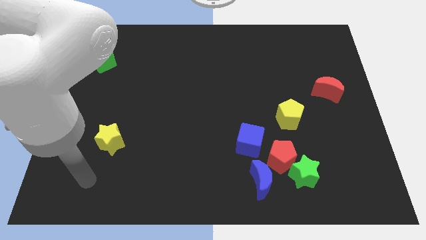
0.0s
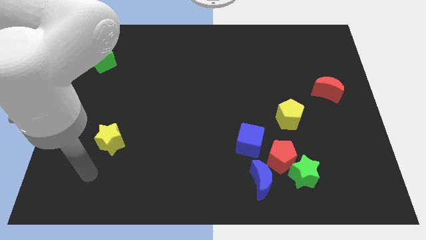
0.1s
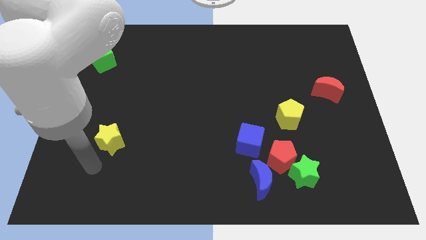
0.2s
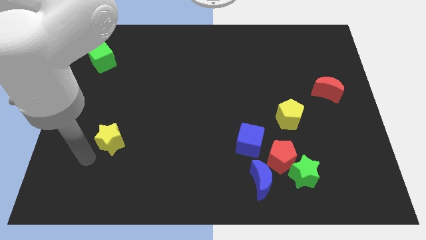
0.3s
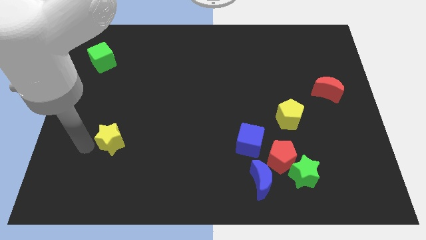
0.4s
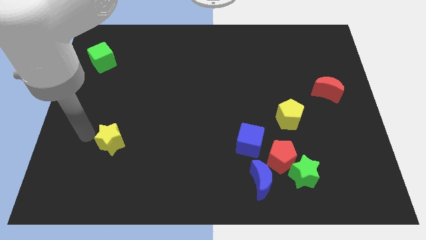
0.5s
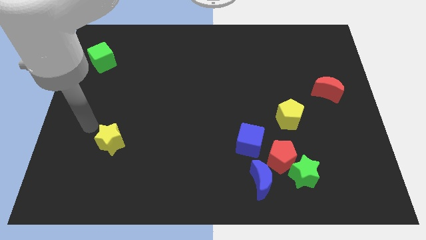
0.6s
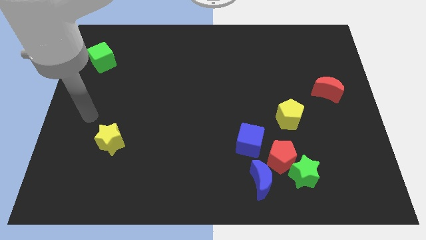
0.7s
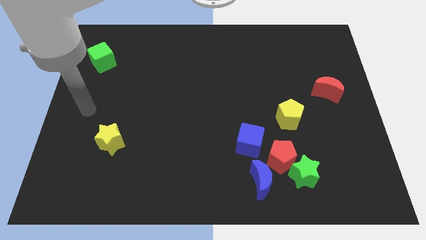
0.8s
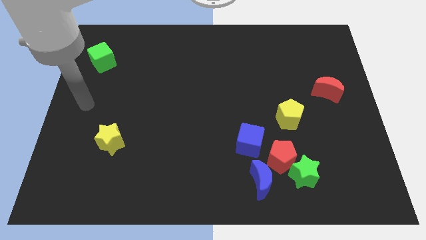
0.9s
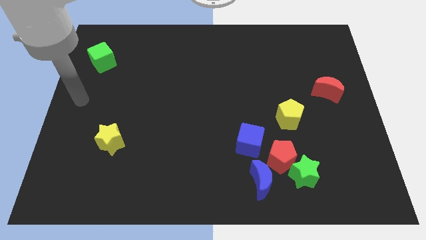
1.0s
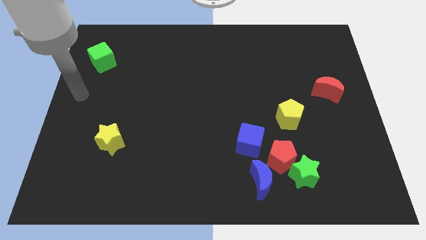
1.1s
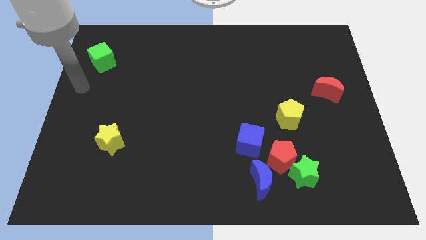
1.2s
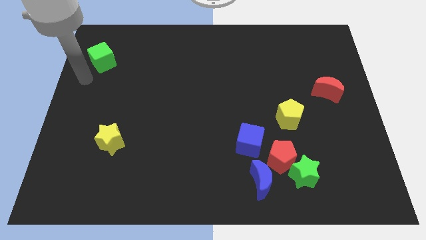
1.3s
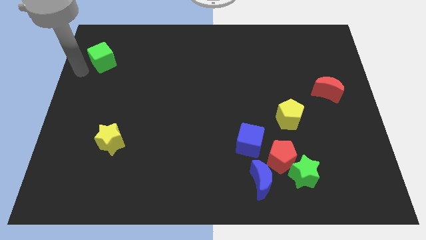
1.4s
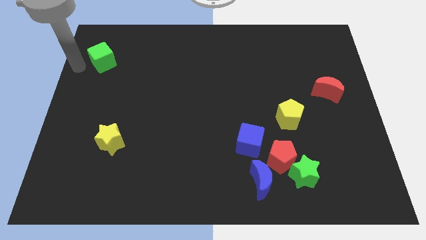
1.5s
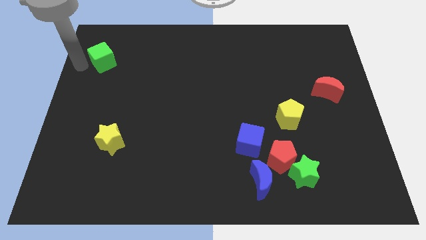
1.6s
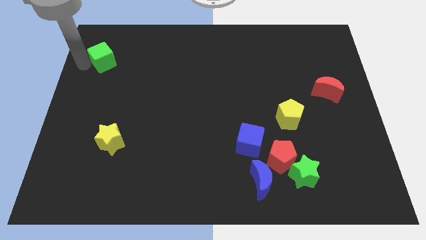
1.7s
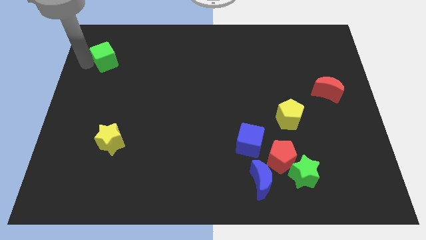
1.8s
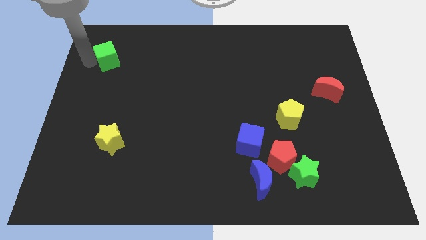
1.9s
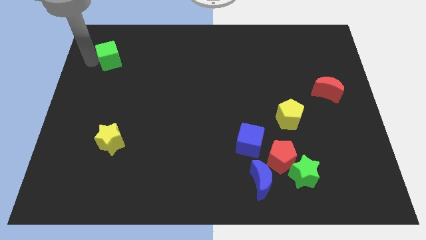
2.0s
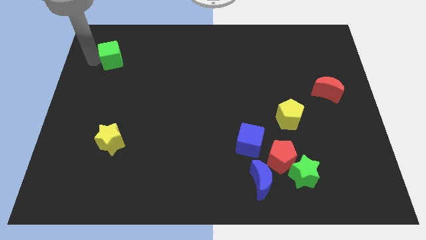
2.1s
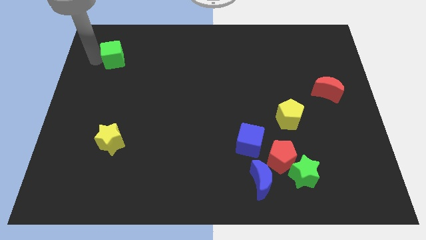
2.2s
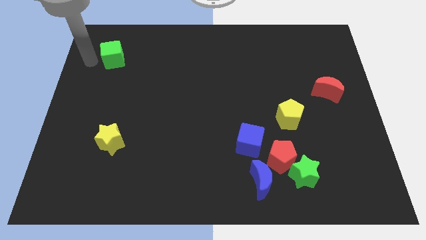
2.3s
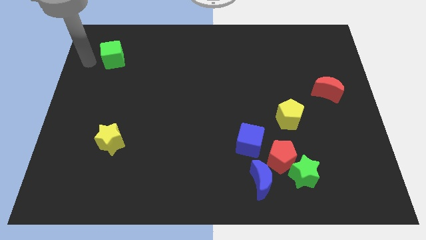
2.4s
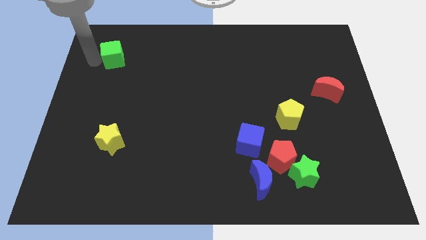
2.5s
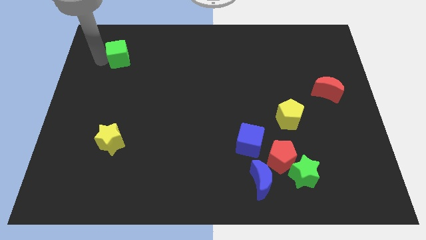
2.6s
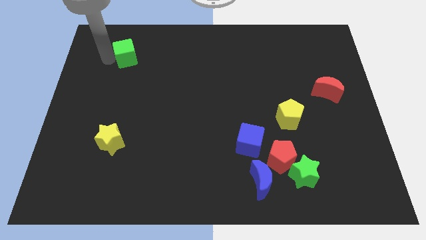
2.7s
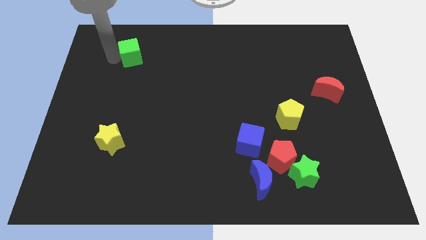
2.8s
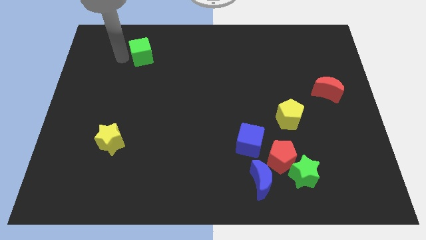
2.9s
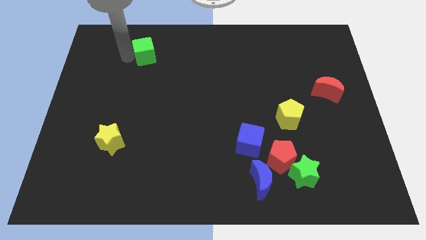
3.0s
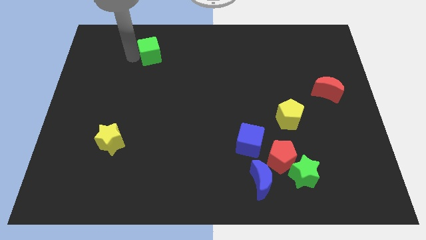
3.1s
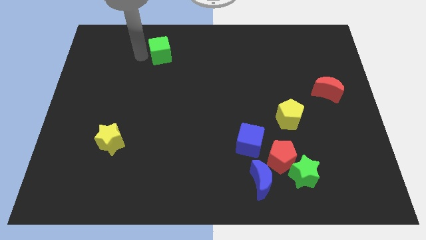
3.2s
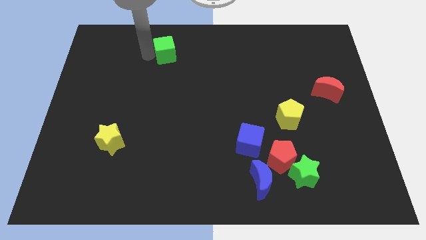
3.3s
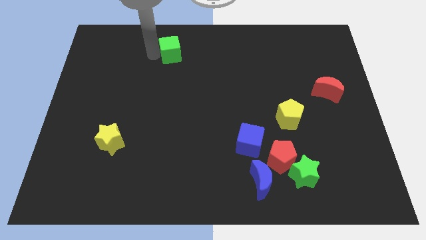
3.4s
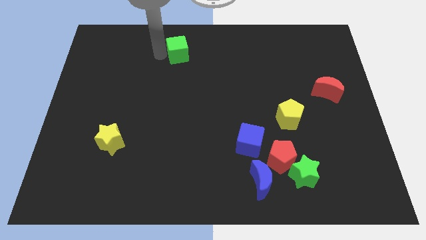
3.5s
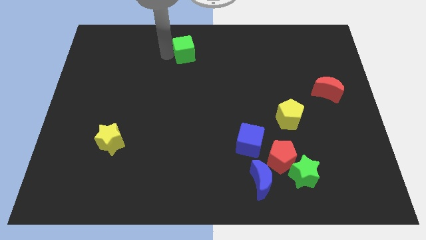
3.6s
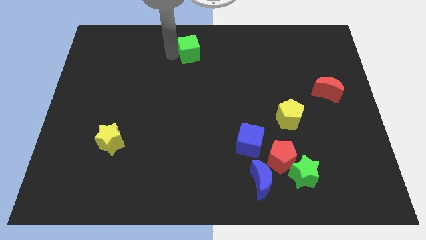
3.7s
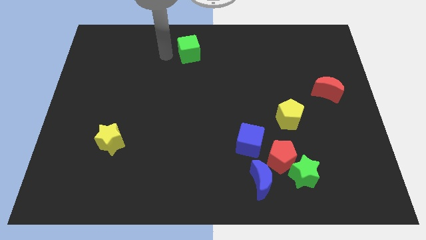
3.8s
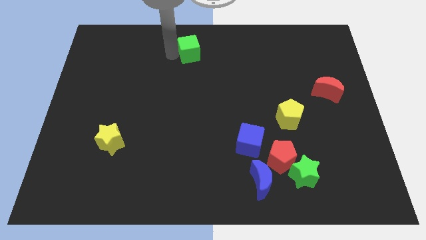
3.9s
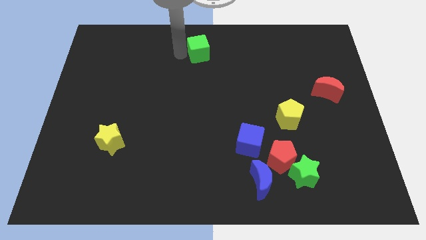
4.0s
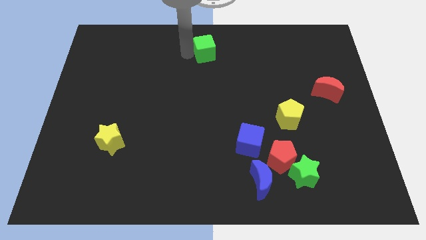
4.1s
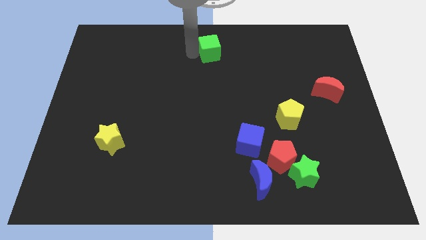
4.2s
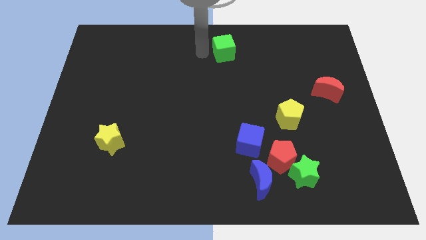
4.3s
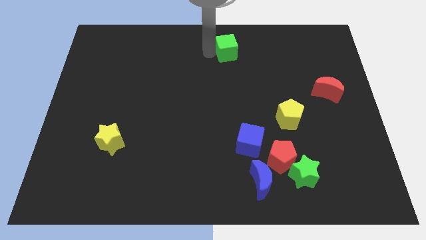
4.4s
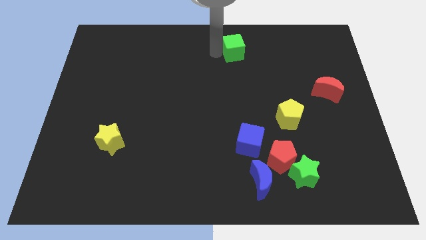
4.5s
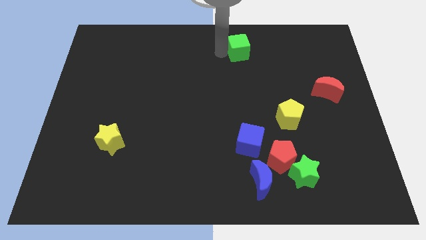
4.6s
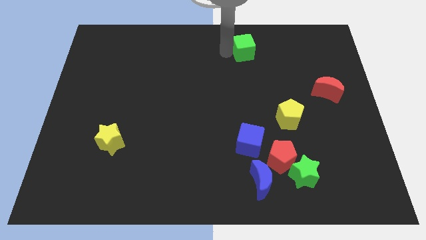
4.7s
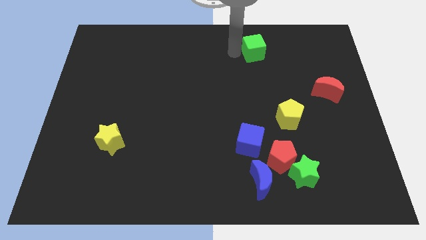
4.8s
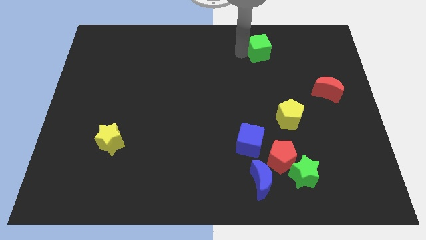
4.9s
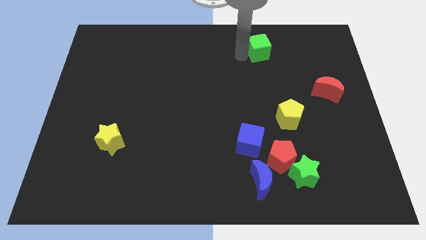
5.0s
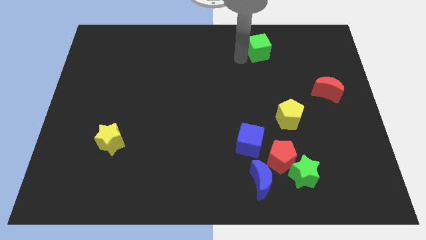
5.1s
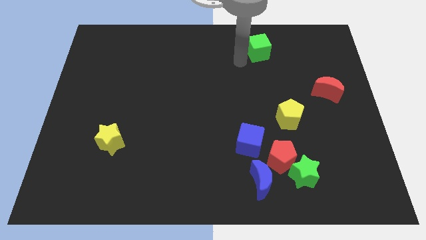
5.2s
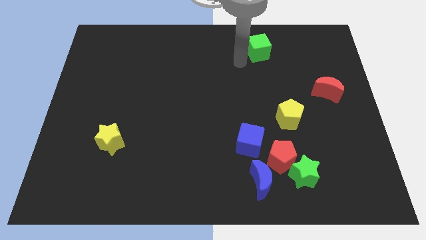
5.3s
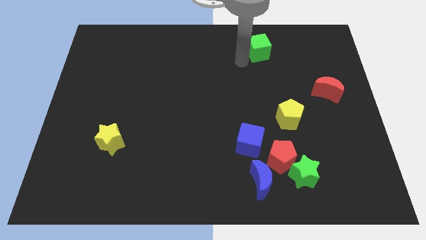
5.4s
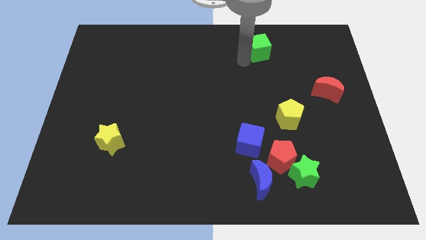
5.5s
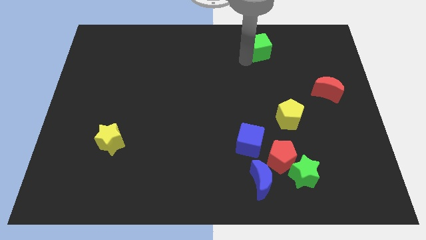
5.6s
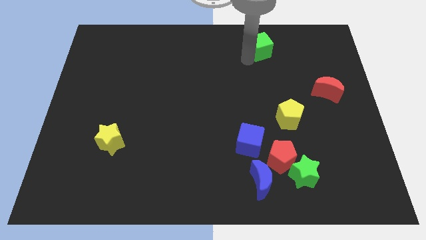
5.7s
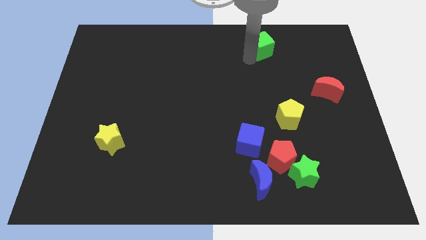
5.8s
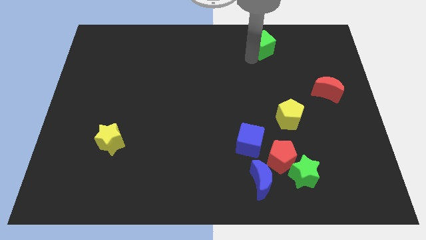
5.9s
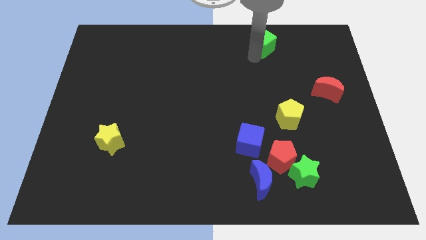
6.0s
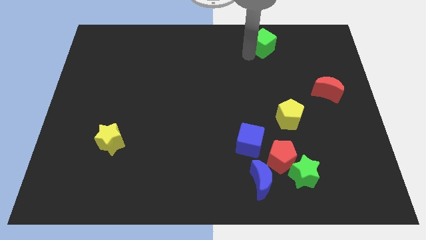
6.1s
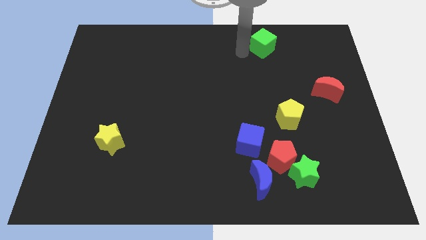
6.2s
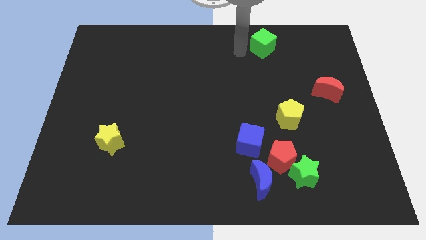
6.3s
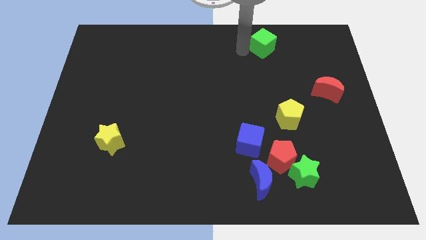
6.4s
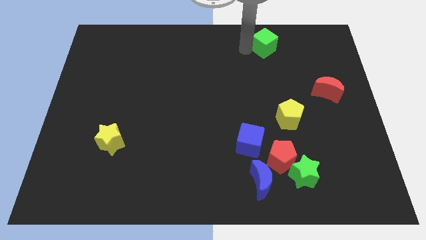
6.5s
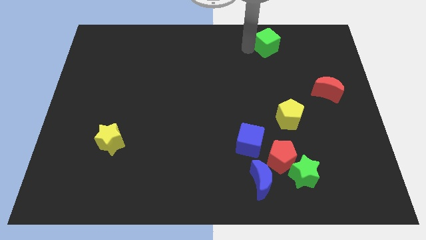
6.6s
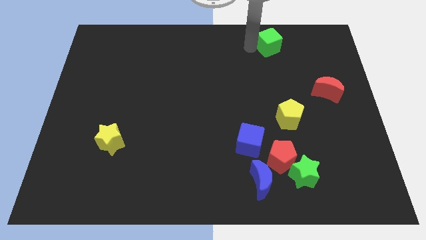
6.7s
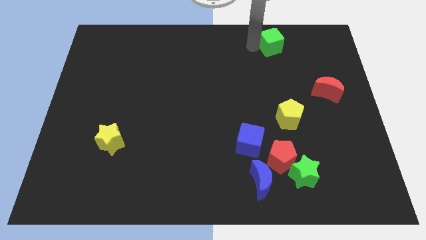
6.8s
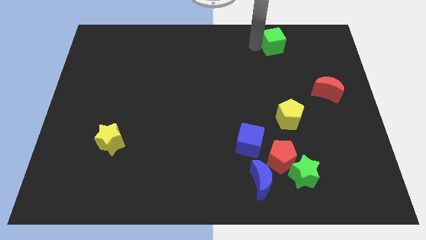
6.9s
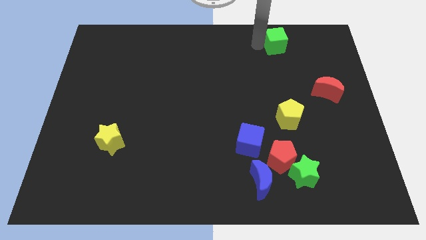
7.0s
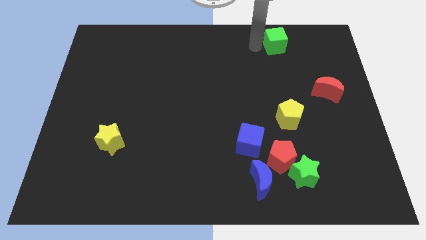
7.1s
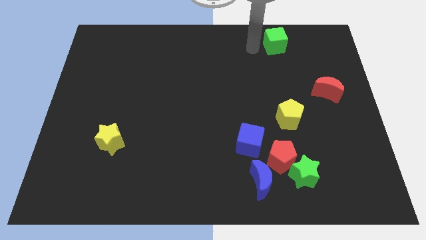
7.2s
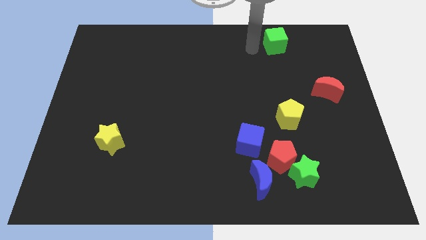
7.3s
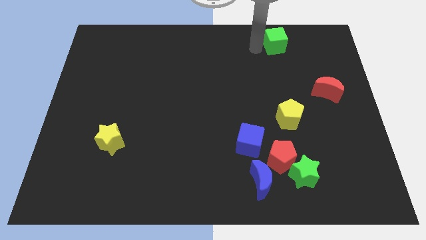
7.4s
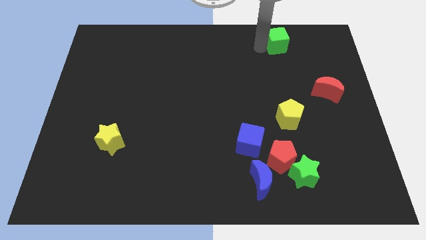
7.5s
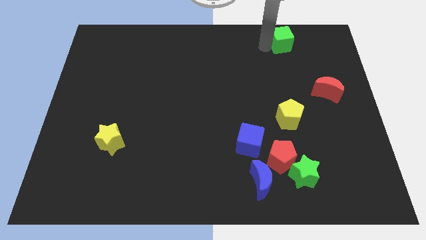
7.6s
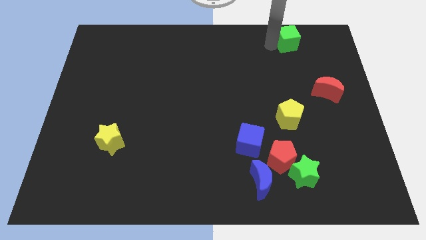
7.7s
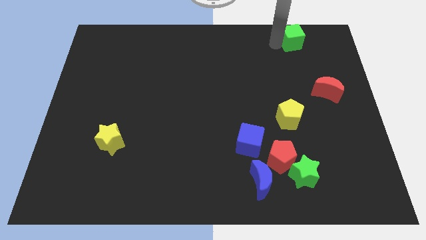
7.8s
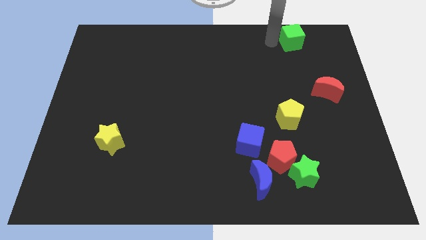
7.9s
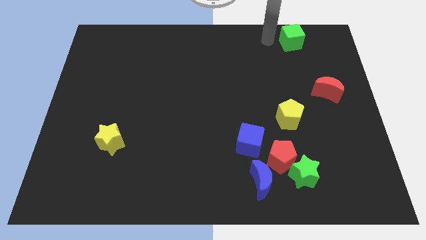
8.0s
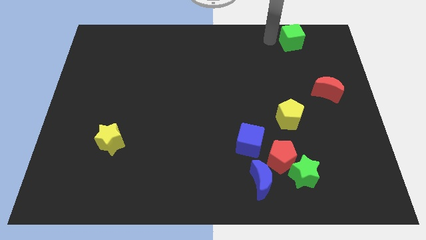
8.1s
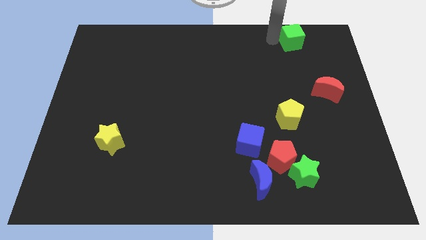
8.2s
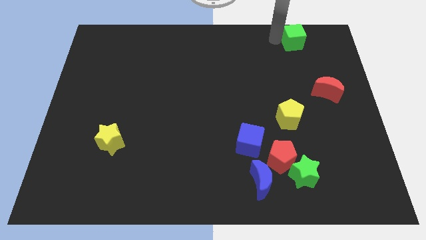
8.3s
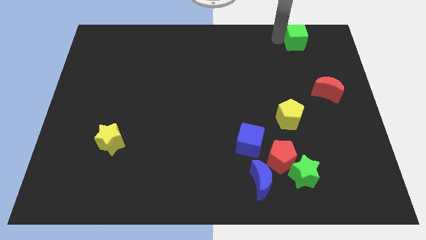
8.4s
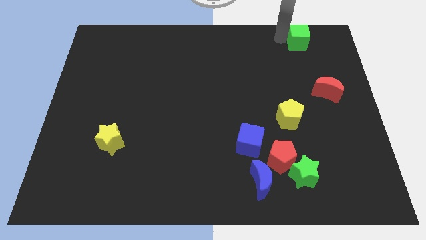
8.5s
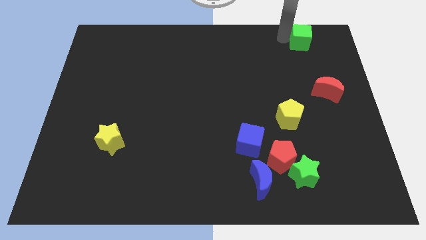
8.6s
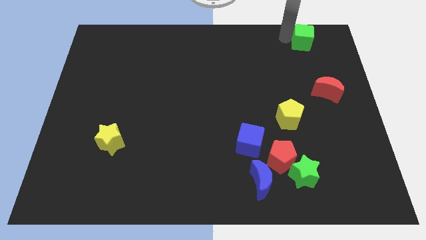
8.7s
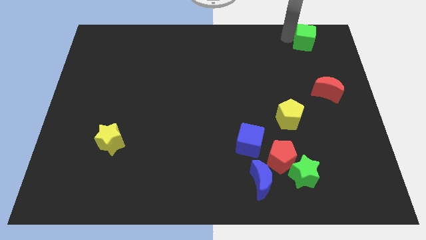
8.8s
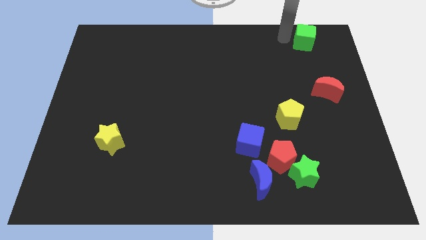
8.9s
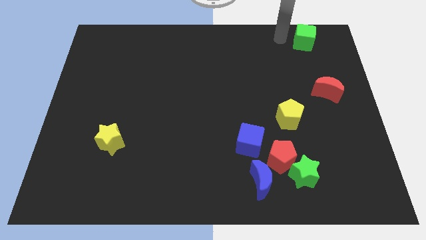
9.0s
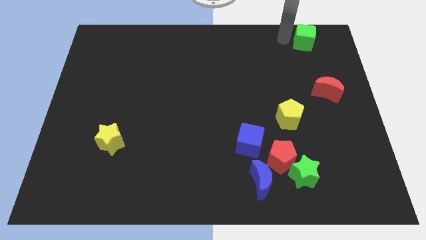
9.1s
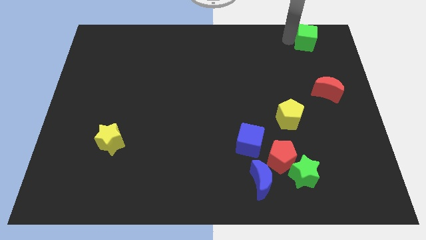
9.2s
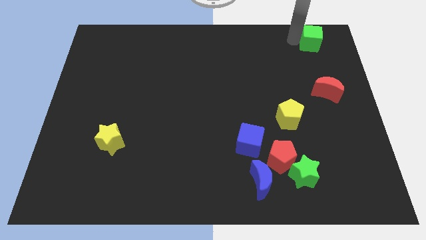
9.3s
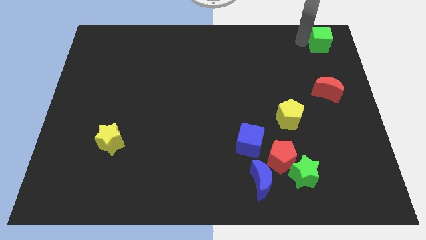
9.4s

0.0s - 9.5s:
slide the green cube to the upper right corner
